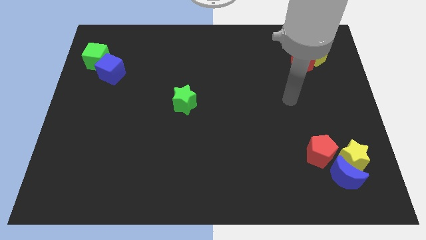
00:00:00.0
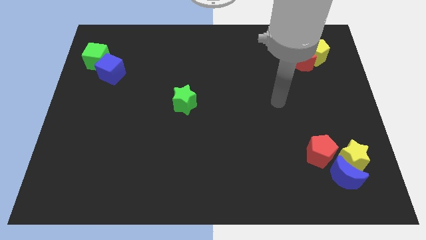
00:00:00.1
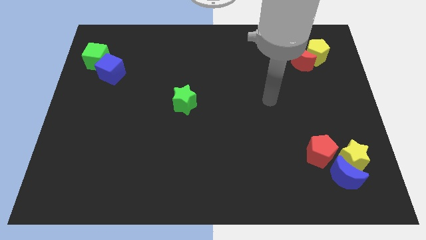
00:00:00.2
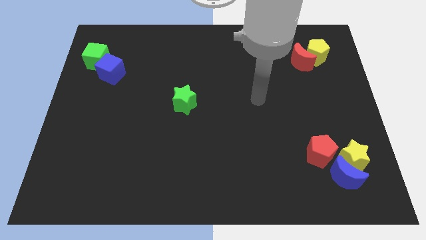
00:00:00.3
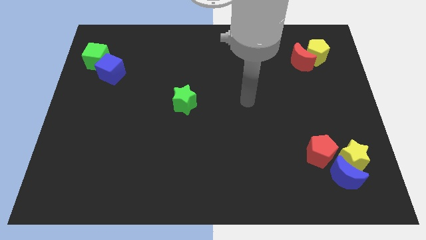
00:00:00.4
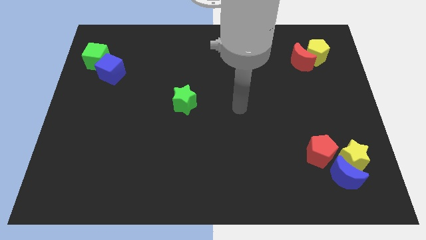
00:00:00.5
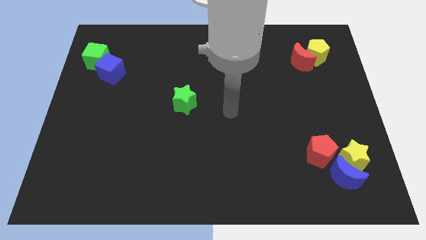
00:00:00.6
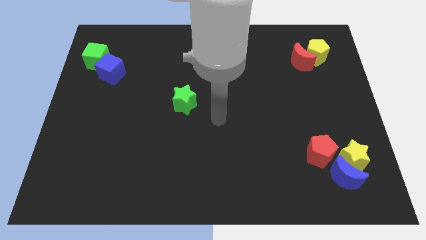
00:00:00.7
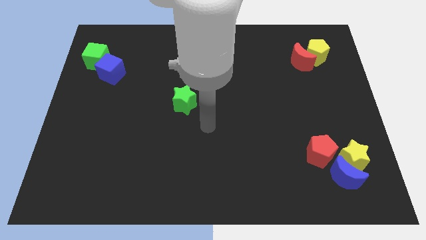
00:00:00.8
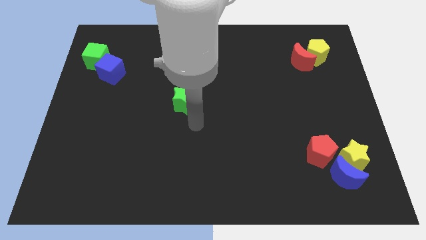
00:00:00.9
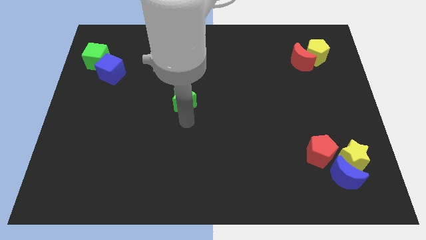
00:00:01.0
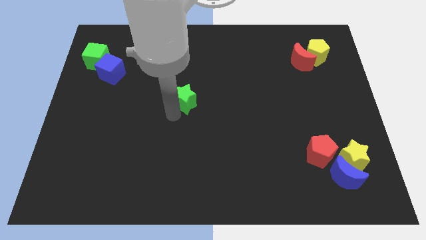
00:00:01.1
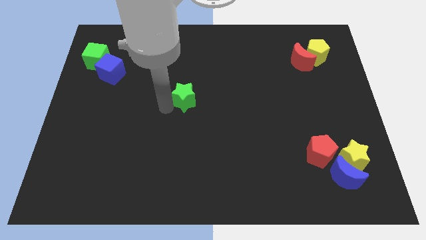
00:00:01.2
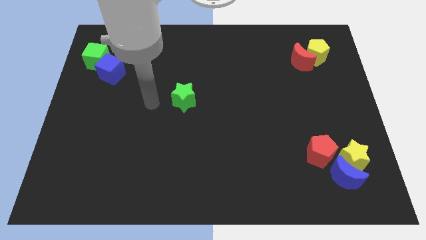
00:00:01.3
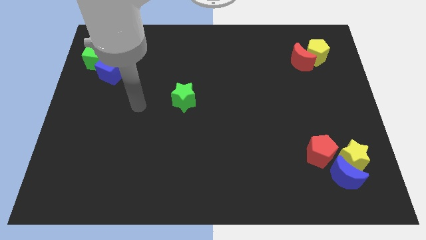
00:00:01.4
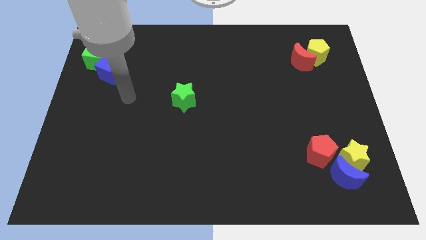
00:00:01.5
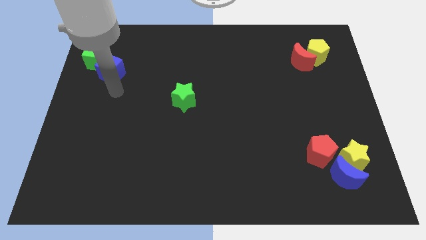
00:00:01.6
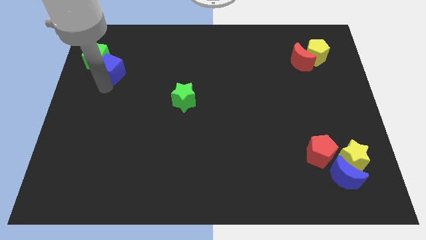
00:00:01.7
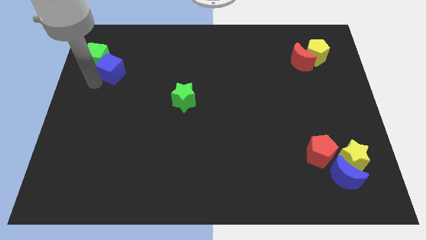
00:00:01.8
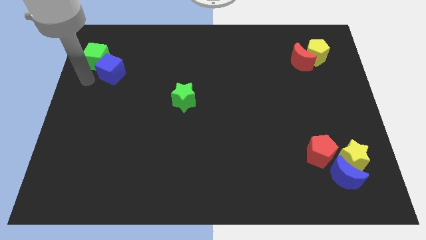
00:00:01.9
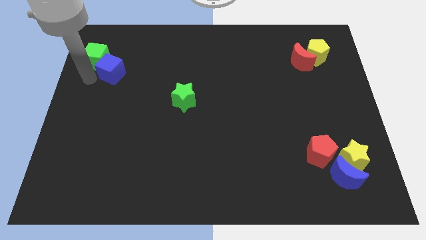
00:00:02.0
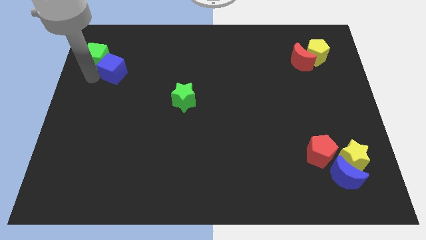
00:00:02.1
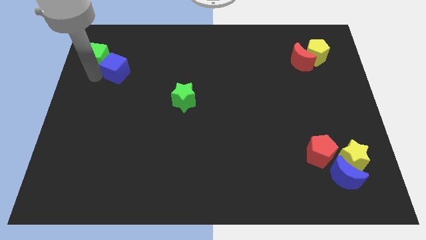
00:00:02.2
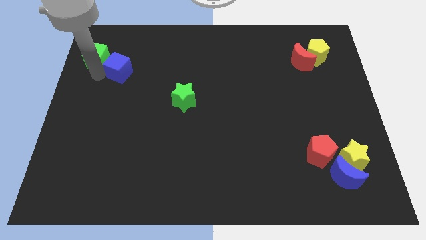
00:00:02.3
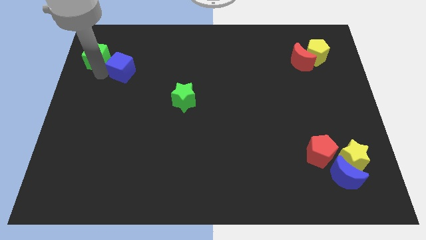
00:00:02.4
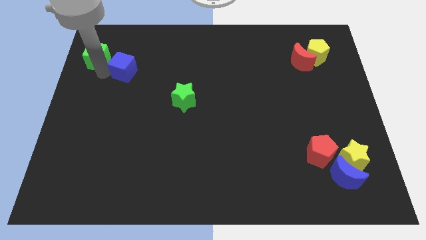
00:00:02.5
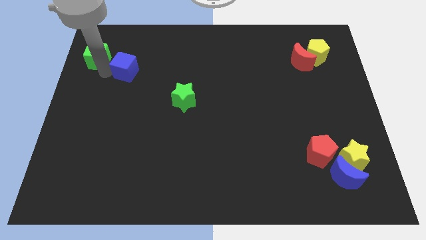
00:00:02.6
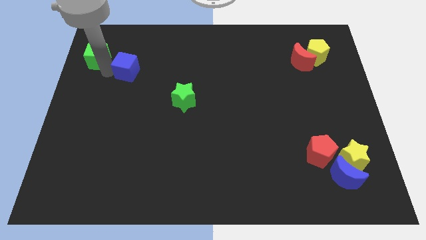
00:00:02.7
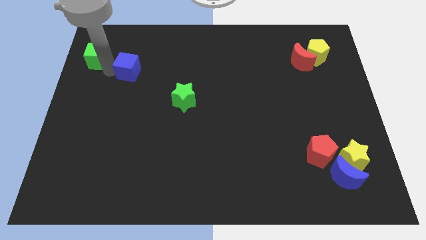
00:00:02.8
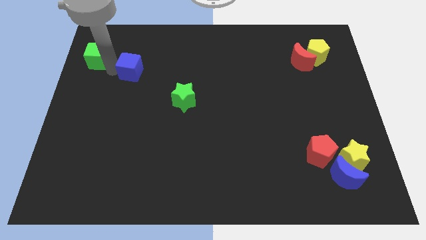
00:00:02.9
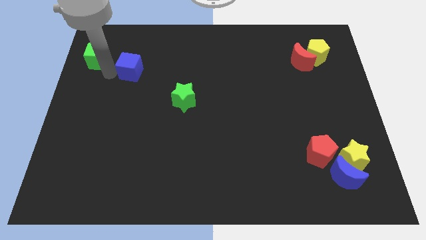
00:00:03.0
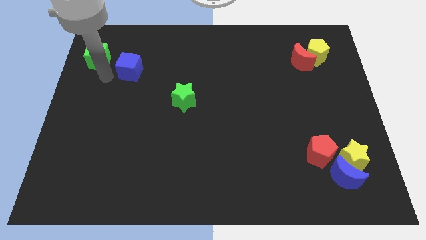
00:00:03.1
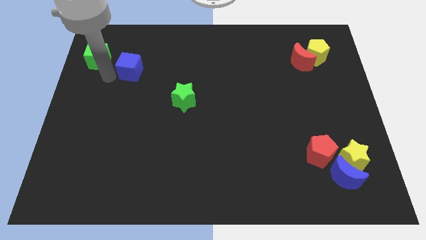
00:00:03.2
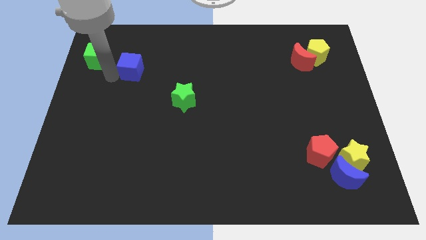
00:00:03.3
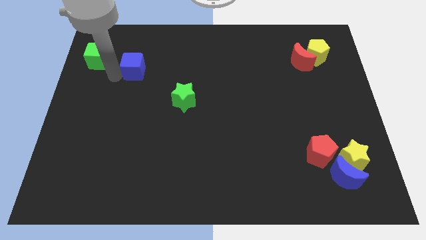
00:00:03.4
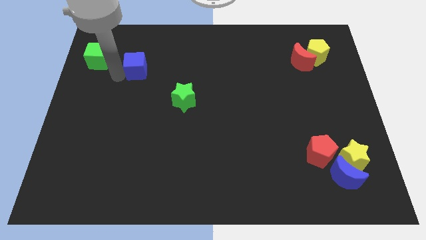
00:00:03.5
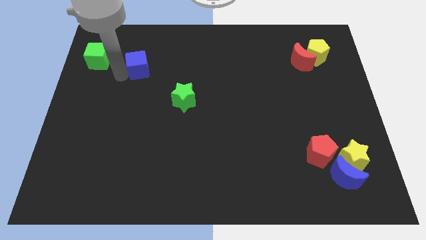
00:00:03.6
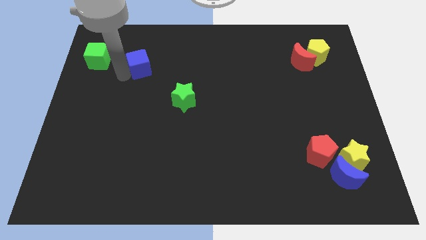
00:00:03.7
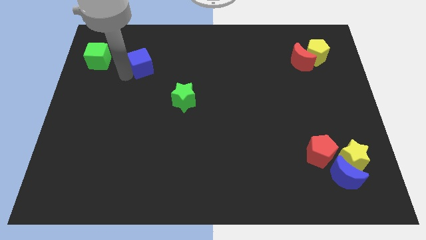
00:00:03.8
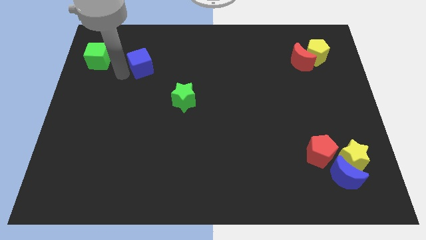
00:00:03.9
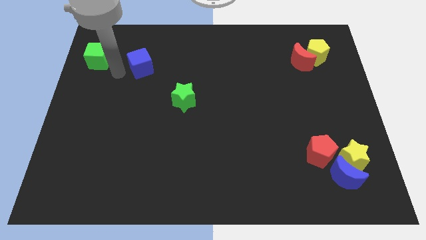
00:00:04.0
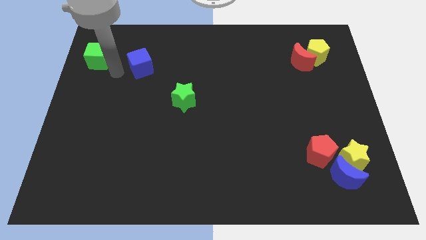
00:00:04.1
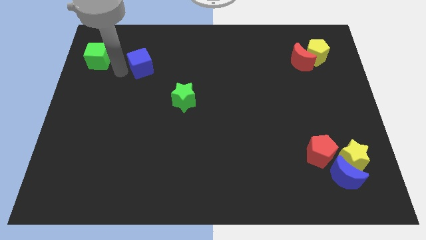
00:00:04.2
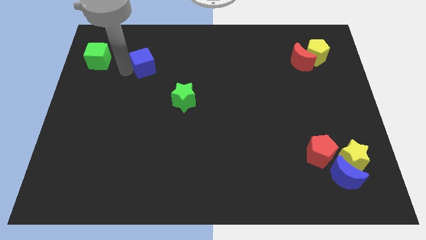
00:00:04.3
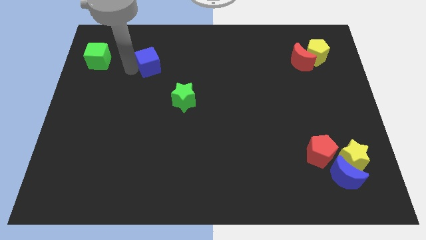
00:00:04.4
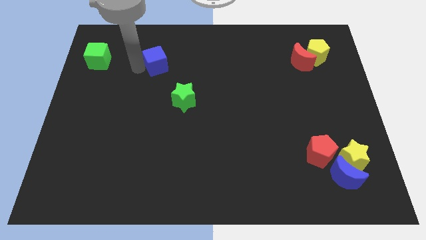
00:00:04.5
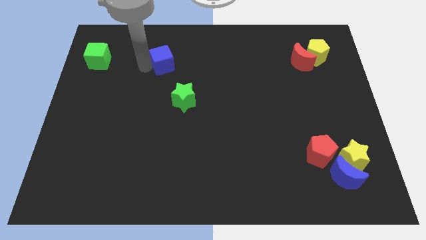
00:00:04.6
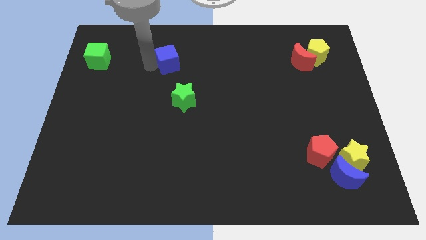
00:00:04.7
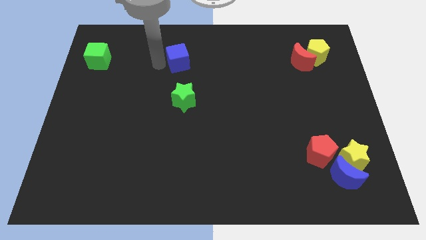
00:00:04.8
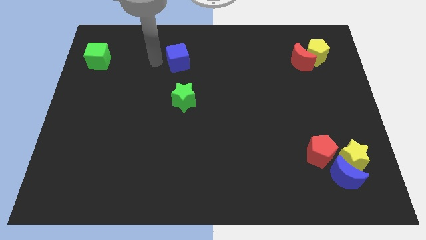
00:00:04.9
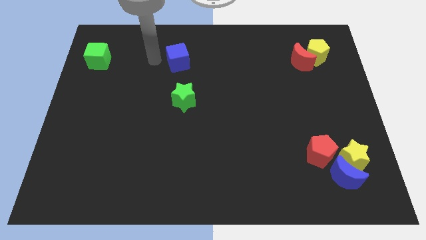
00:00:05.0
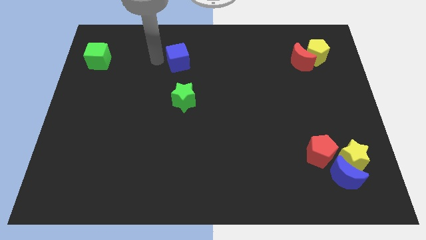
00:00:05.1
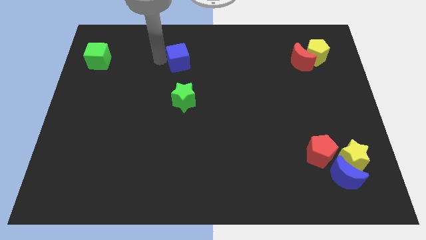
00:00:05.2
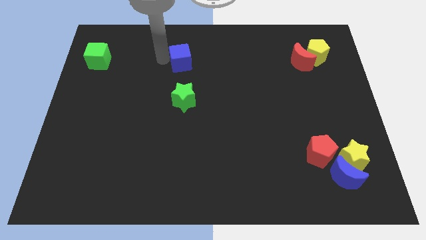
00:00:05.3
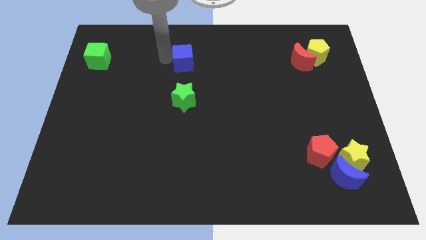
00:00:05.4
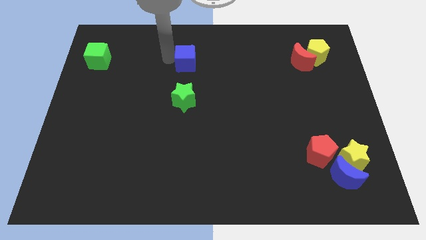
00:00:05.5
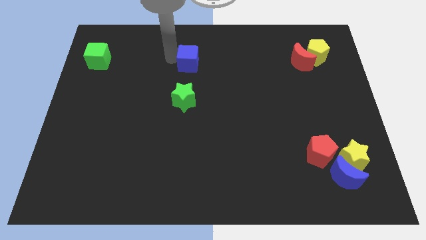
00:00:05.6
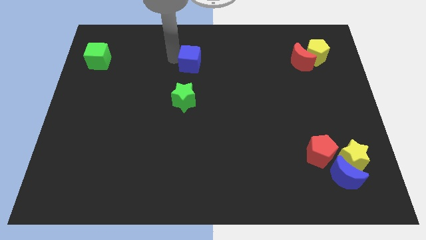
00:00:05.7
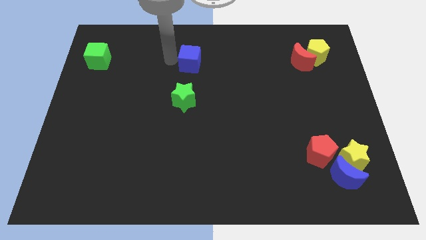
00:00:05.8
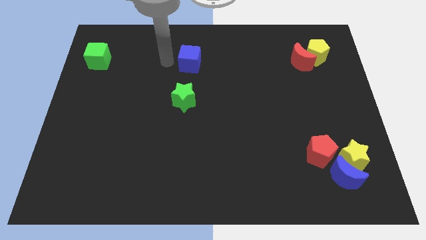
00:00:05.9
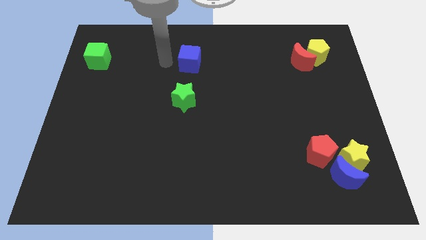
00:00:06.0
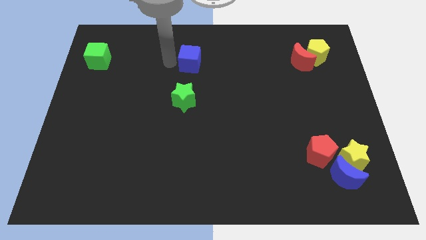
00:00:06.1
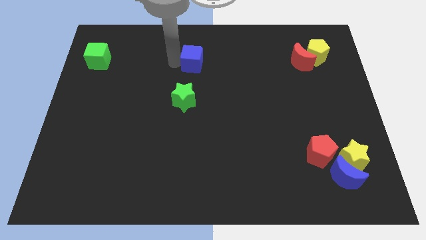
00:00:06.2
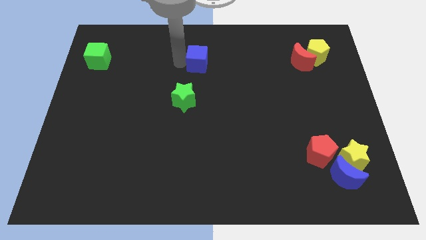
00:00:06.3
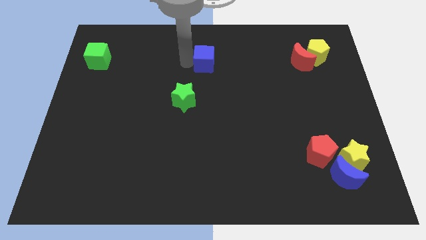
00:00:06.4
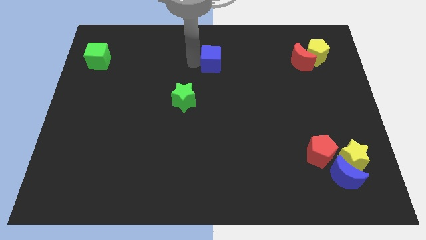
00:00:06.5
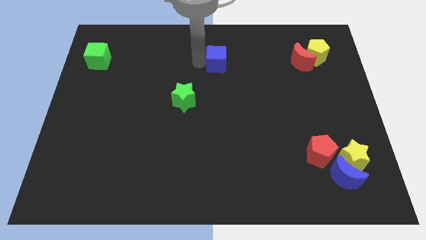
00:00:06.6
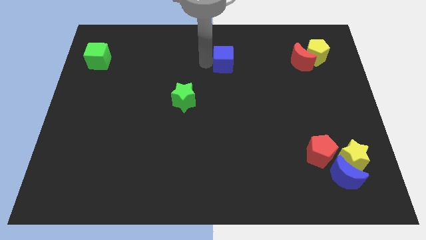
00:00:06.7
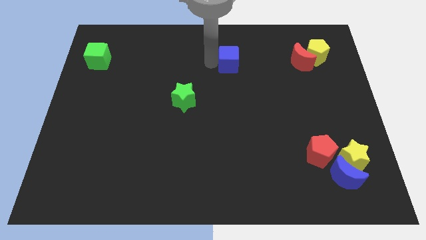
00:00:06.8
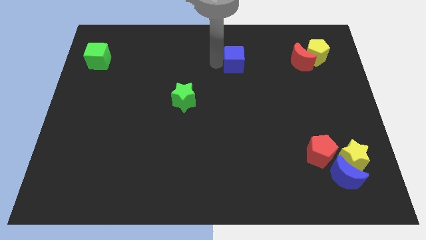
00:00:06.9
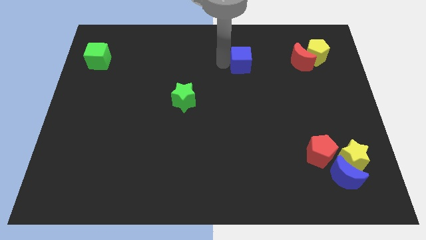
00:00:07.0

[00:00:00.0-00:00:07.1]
push the blue cube left of the red moon
